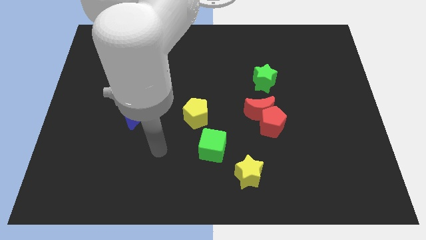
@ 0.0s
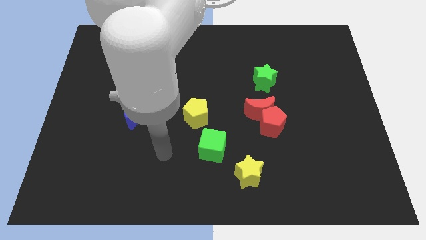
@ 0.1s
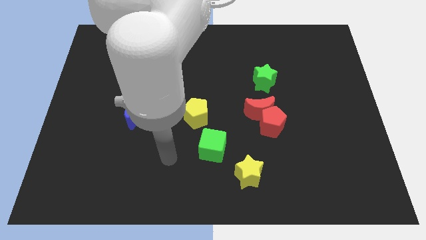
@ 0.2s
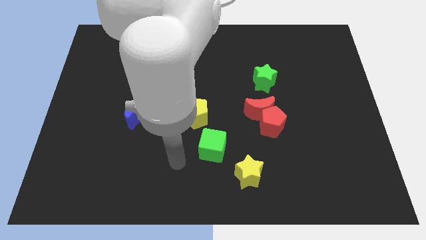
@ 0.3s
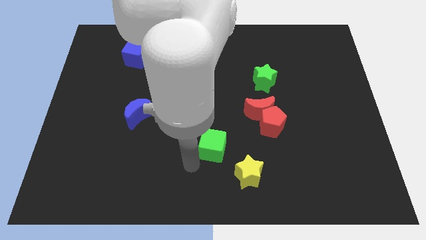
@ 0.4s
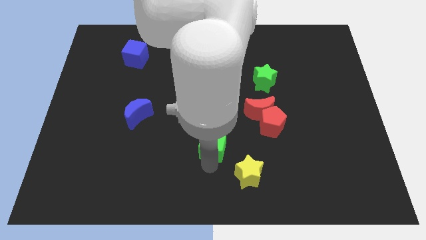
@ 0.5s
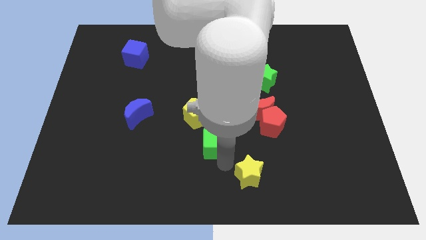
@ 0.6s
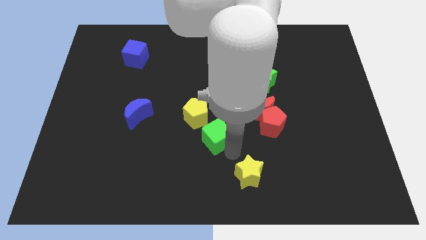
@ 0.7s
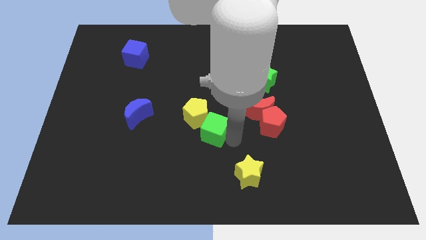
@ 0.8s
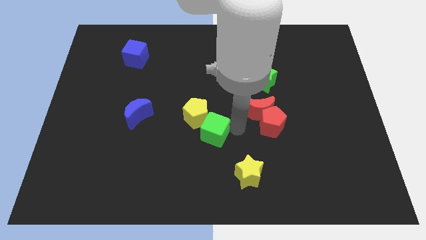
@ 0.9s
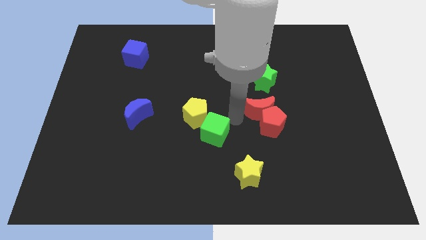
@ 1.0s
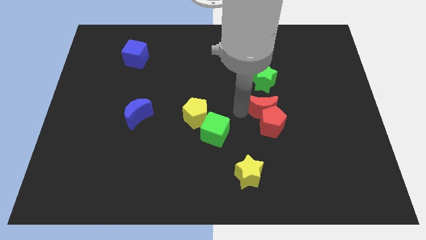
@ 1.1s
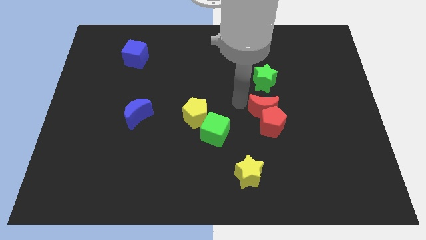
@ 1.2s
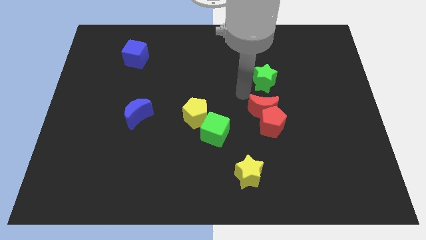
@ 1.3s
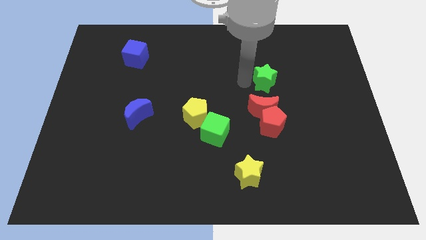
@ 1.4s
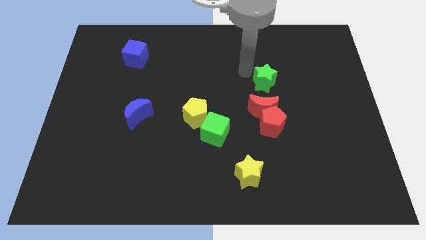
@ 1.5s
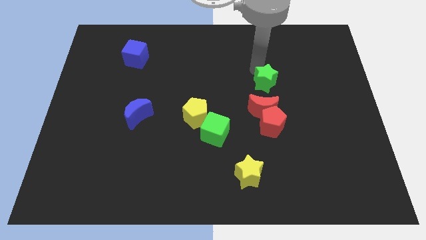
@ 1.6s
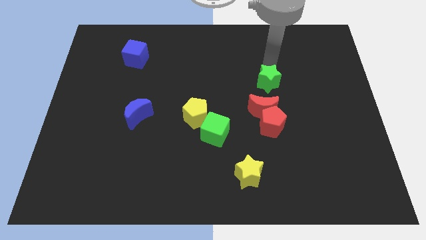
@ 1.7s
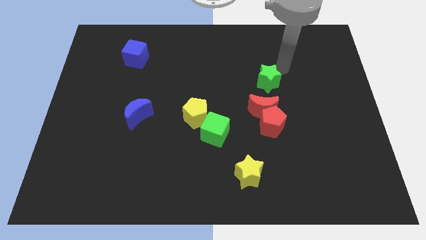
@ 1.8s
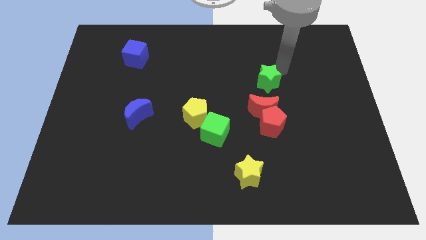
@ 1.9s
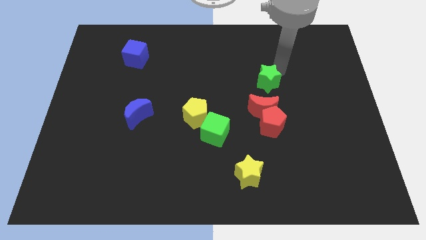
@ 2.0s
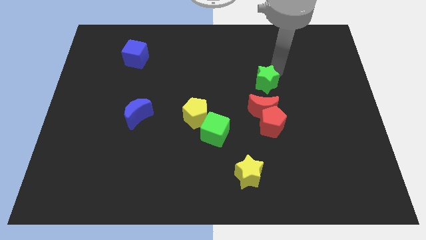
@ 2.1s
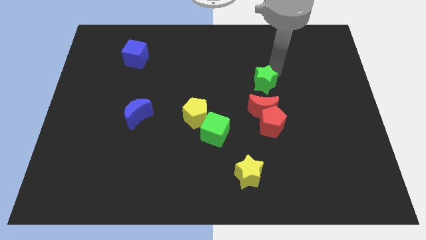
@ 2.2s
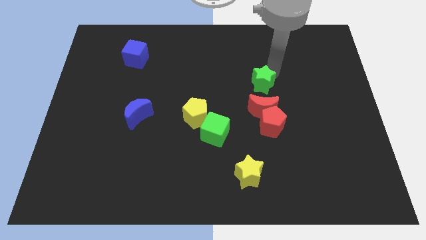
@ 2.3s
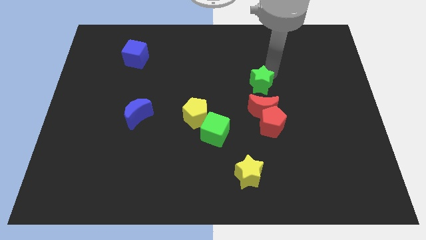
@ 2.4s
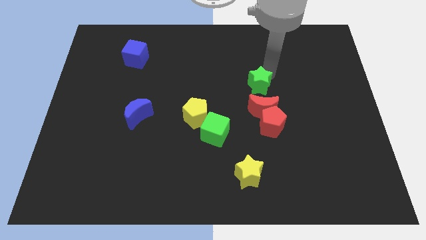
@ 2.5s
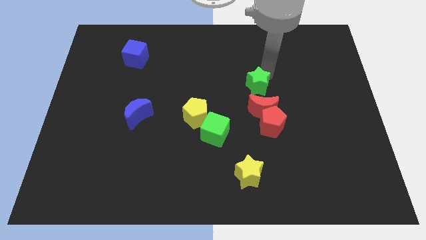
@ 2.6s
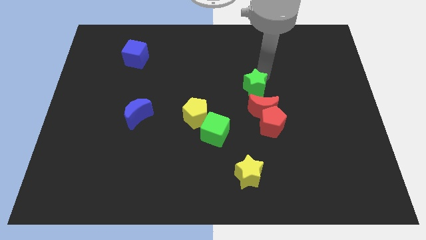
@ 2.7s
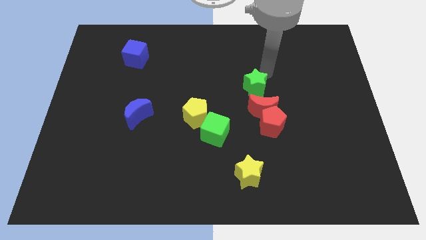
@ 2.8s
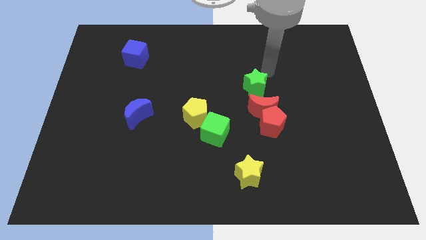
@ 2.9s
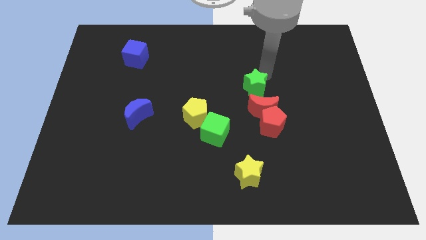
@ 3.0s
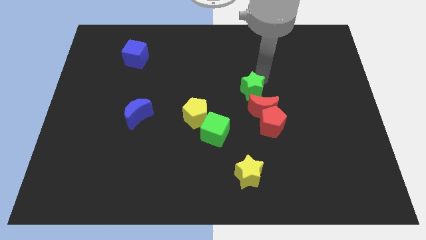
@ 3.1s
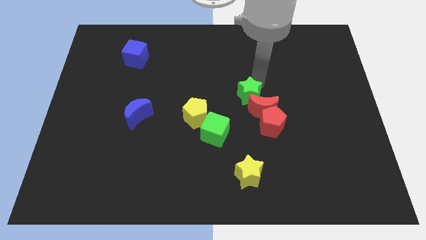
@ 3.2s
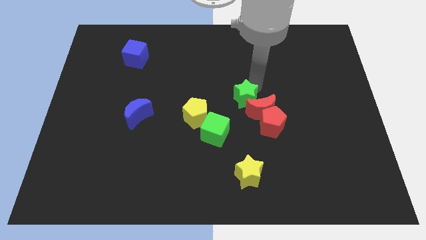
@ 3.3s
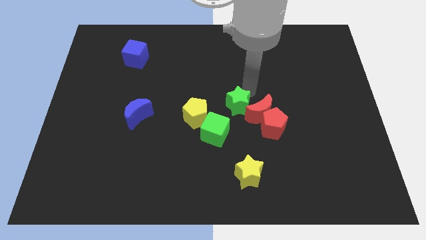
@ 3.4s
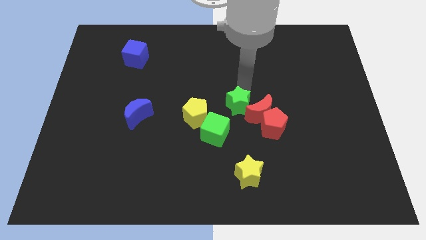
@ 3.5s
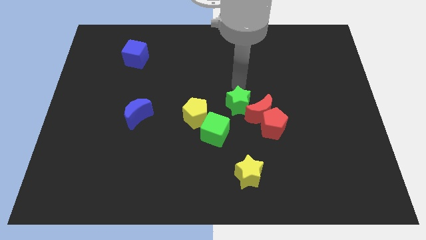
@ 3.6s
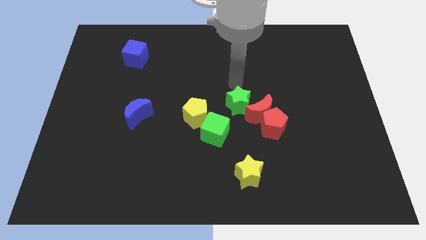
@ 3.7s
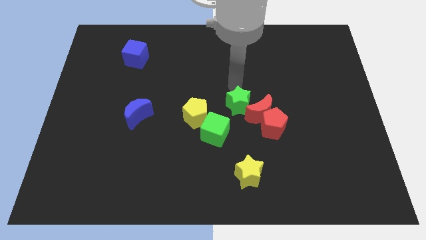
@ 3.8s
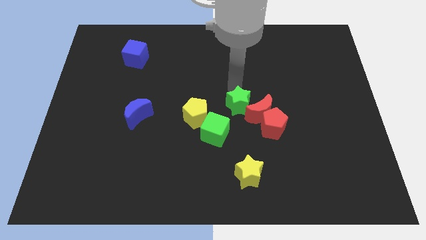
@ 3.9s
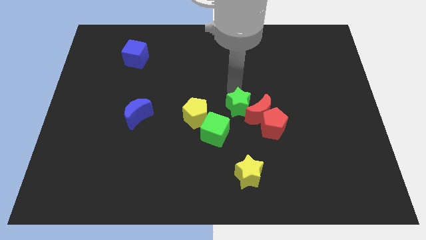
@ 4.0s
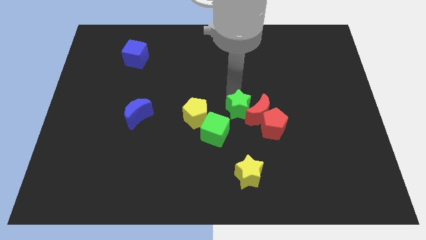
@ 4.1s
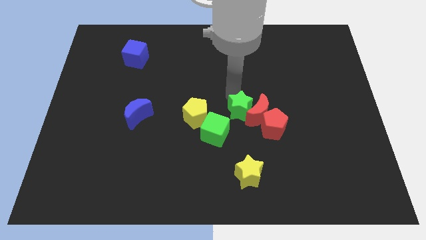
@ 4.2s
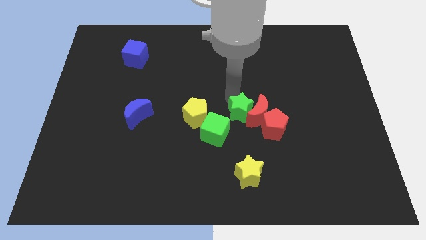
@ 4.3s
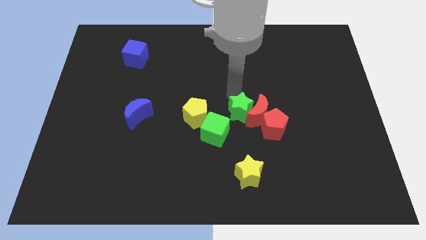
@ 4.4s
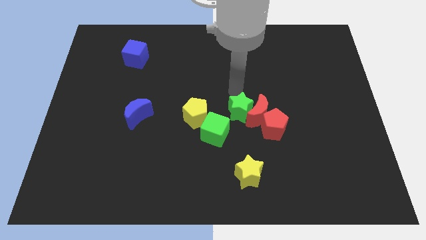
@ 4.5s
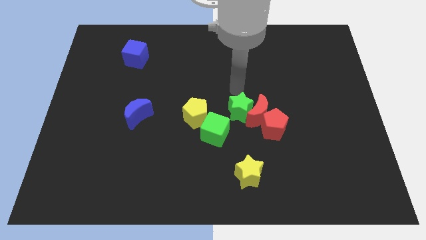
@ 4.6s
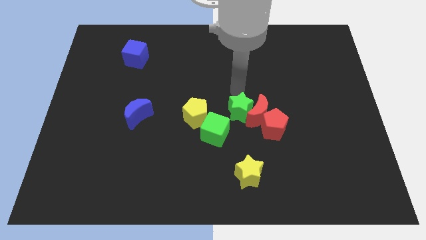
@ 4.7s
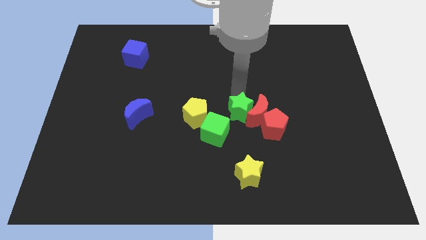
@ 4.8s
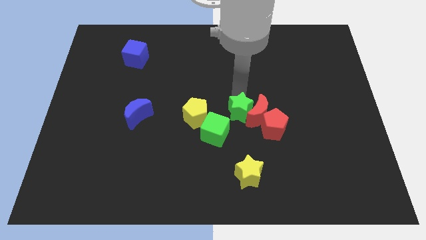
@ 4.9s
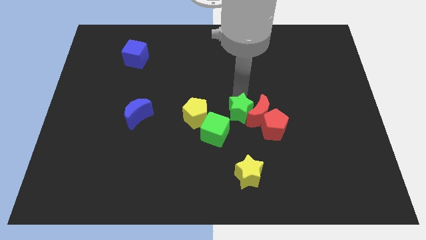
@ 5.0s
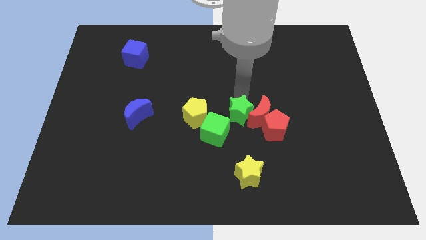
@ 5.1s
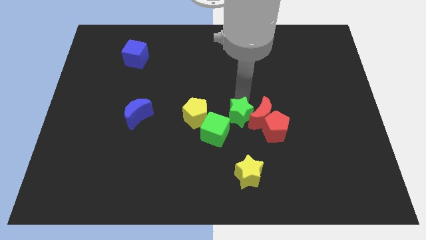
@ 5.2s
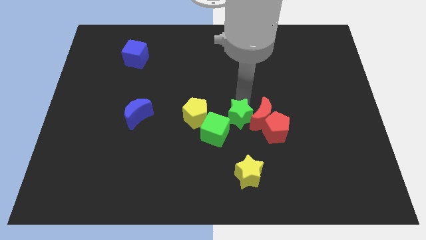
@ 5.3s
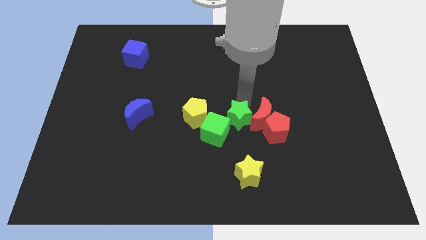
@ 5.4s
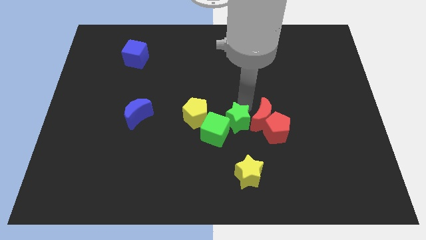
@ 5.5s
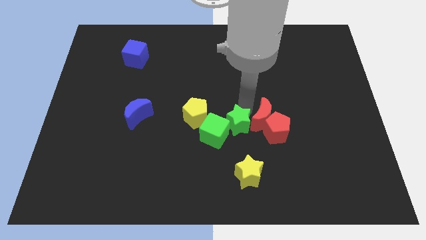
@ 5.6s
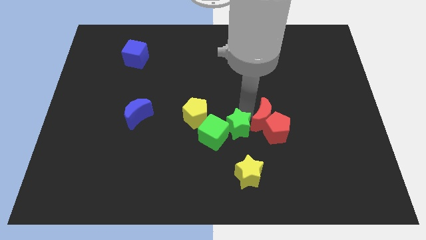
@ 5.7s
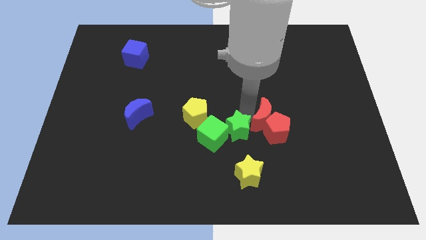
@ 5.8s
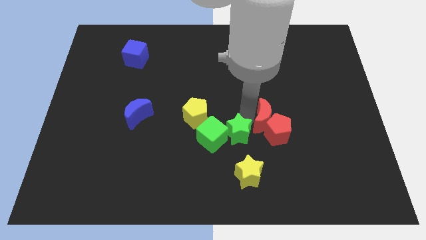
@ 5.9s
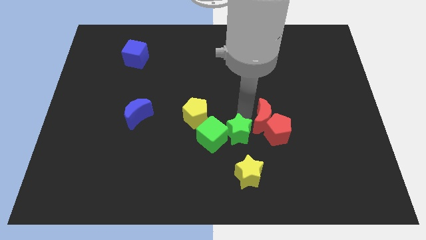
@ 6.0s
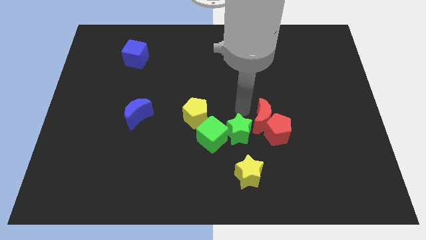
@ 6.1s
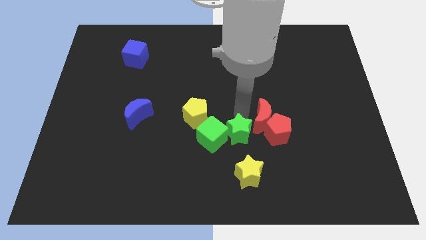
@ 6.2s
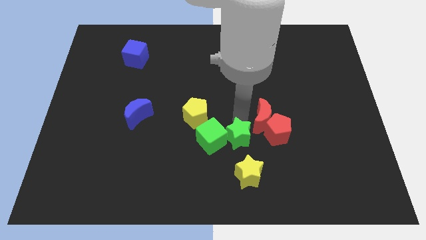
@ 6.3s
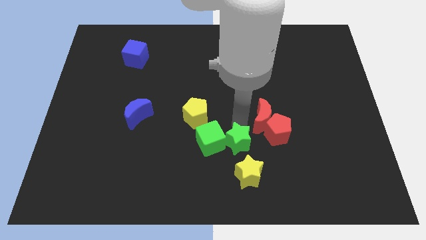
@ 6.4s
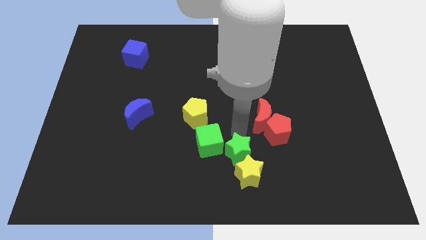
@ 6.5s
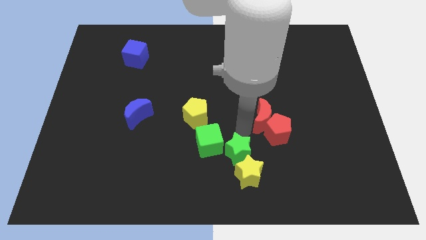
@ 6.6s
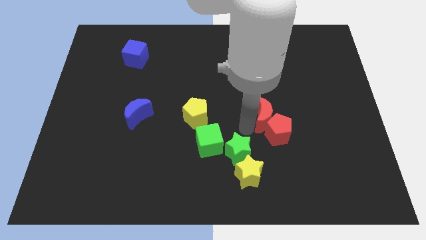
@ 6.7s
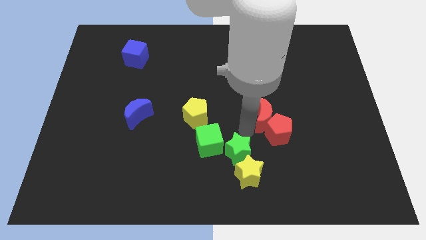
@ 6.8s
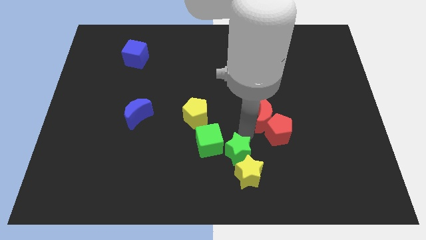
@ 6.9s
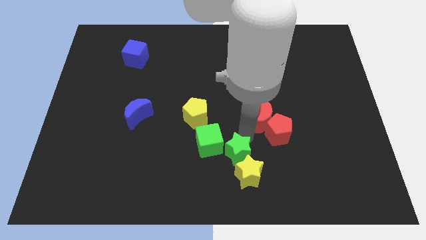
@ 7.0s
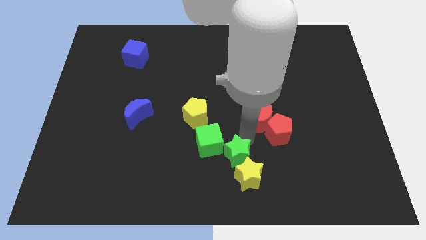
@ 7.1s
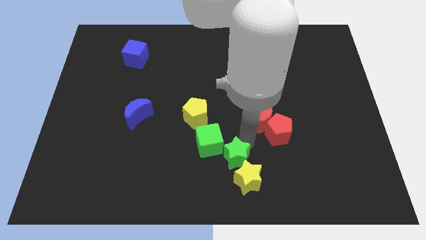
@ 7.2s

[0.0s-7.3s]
slide the green star to the bottom
